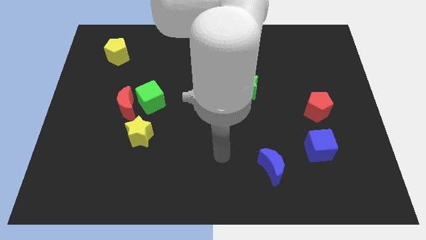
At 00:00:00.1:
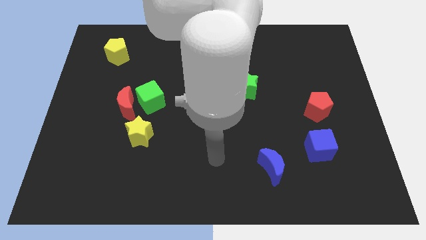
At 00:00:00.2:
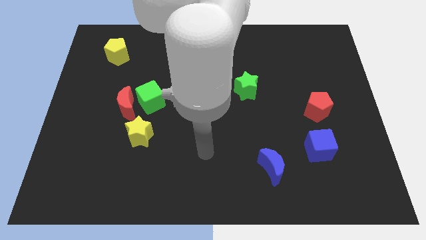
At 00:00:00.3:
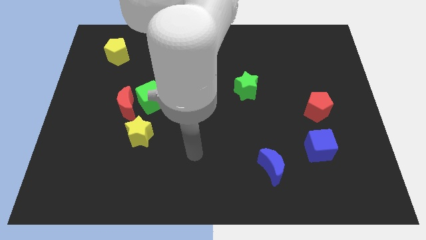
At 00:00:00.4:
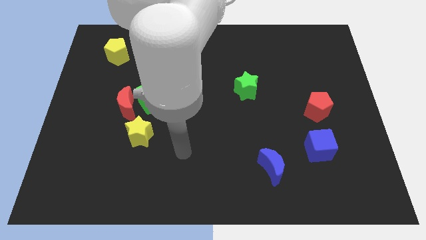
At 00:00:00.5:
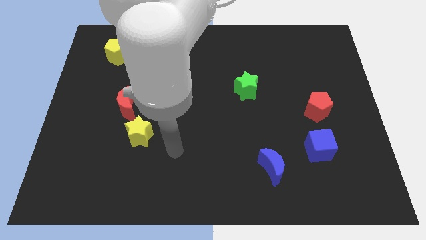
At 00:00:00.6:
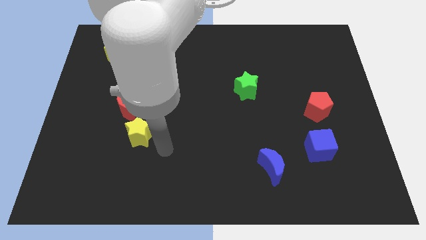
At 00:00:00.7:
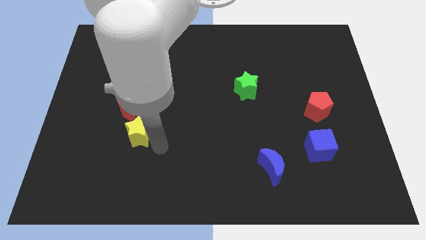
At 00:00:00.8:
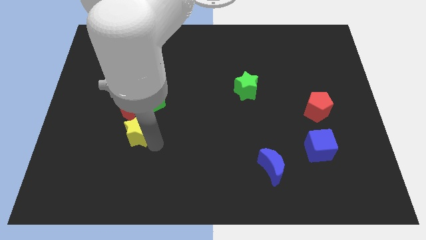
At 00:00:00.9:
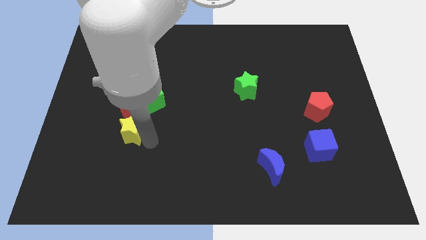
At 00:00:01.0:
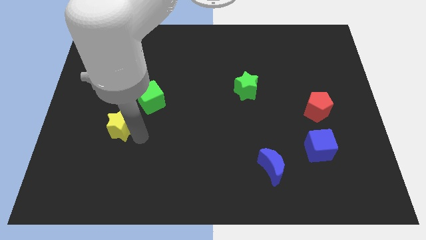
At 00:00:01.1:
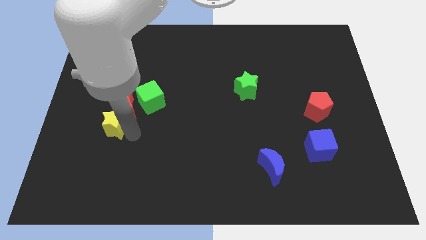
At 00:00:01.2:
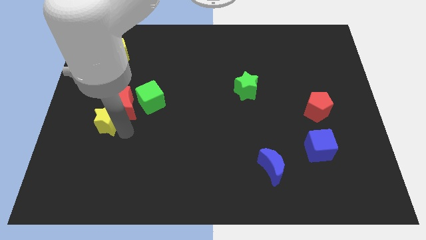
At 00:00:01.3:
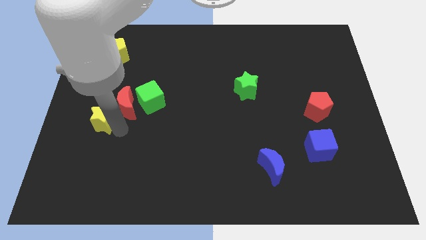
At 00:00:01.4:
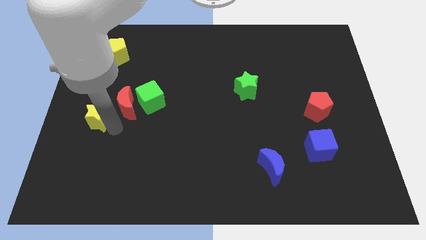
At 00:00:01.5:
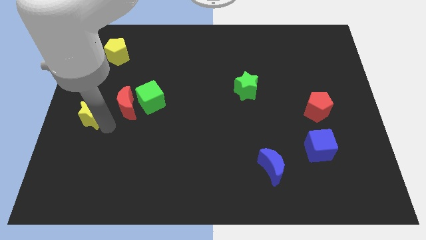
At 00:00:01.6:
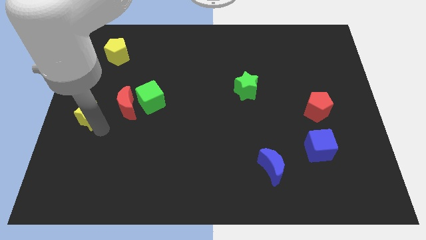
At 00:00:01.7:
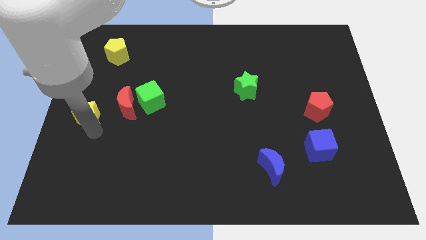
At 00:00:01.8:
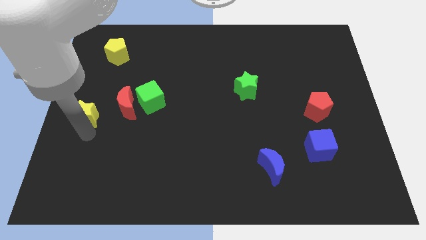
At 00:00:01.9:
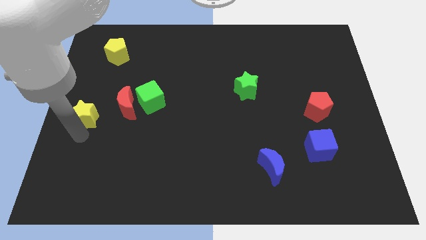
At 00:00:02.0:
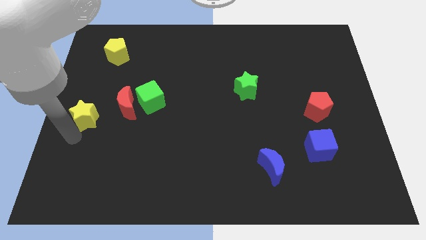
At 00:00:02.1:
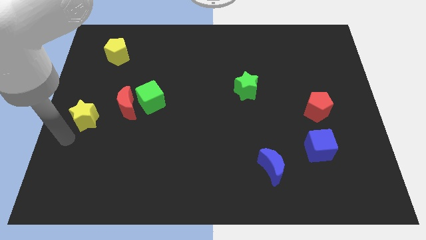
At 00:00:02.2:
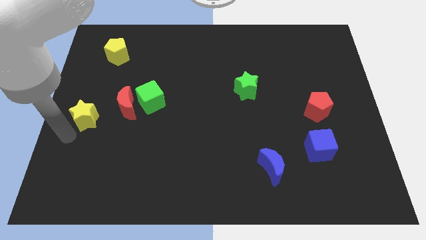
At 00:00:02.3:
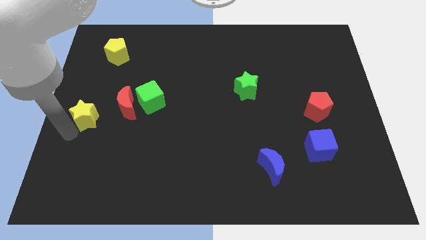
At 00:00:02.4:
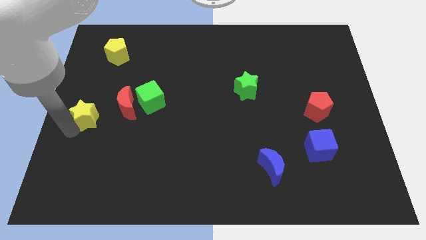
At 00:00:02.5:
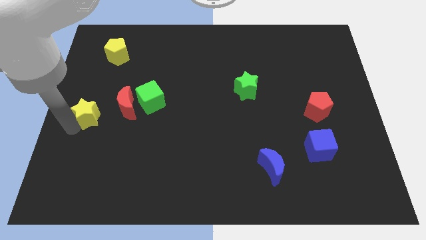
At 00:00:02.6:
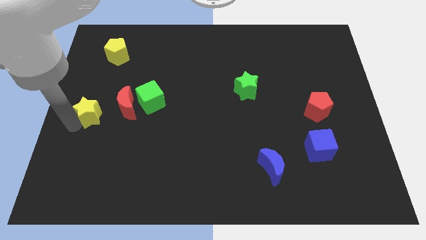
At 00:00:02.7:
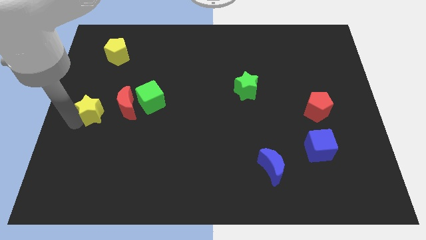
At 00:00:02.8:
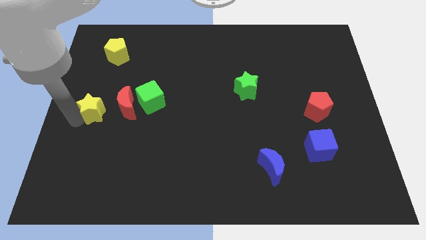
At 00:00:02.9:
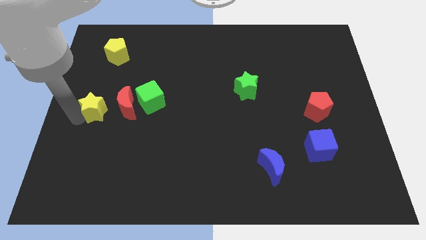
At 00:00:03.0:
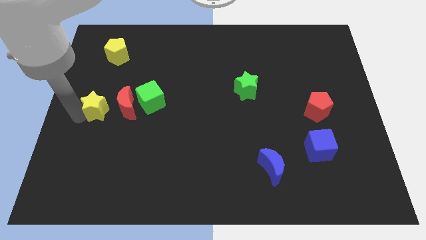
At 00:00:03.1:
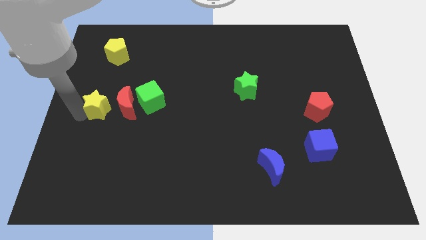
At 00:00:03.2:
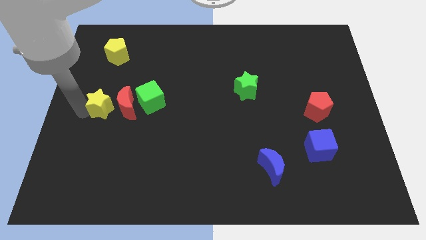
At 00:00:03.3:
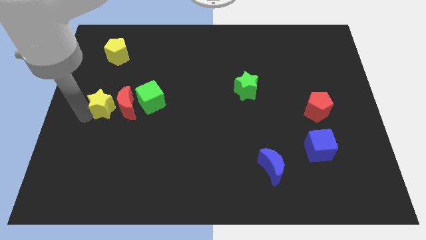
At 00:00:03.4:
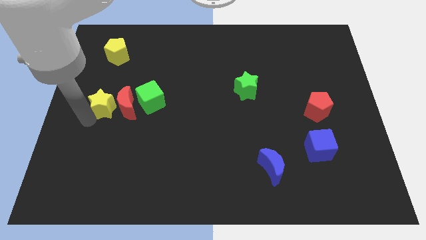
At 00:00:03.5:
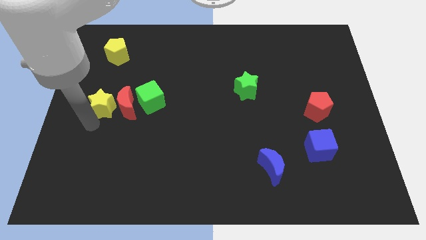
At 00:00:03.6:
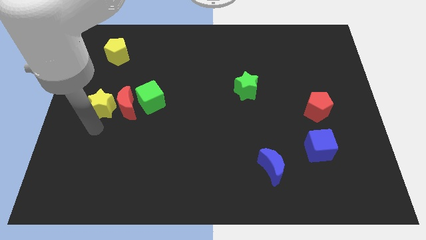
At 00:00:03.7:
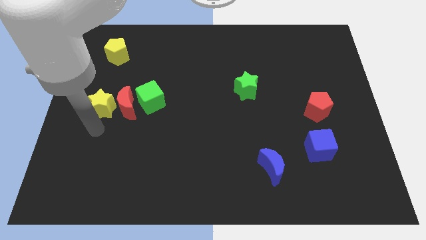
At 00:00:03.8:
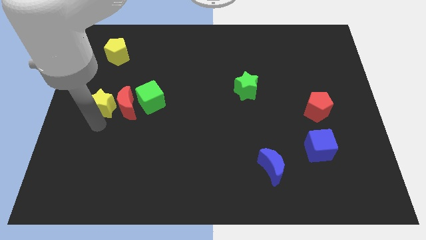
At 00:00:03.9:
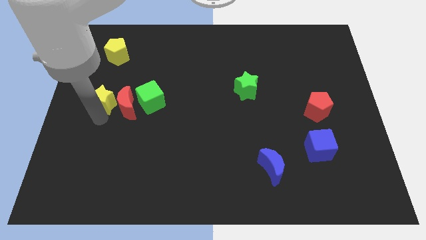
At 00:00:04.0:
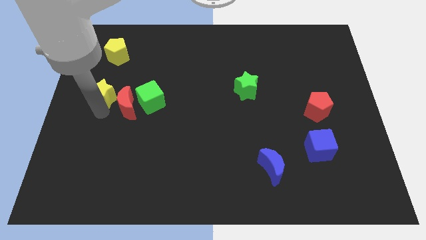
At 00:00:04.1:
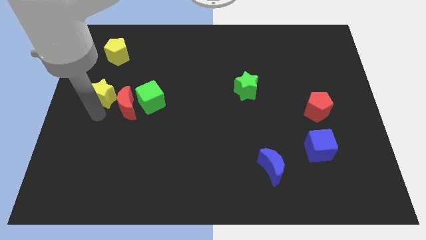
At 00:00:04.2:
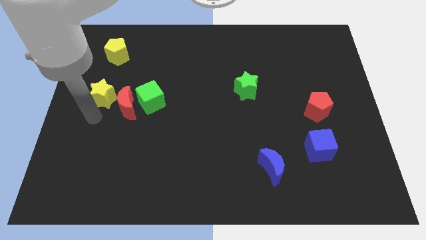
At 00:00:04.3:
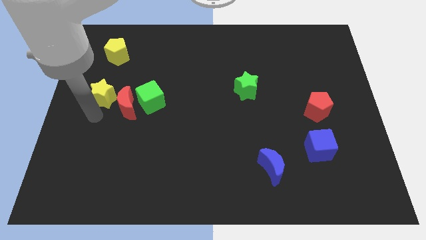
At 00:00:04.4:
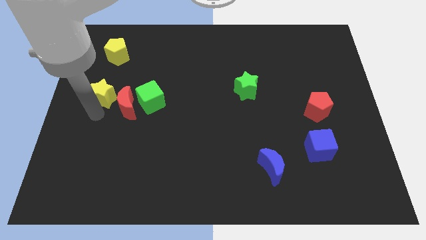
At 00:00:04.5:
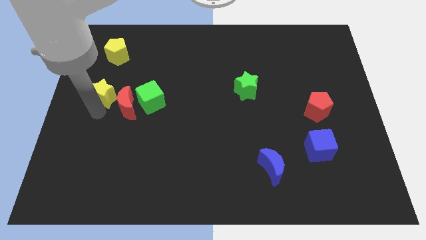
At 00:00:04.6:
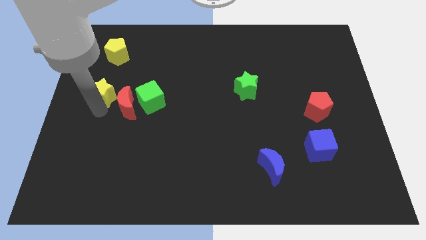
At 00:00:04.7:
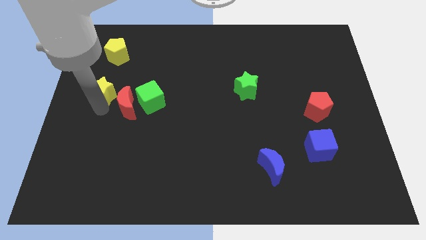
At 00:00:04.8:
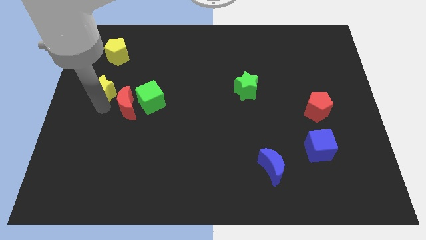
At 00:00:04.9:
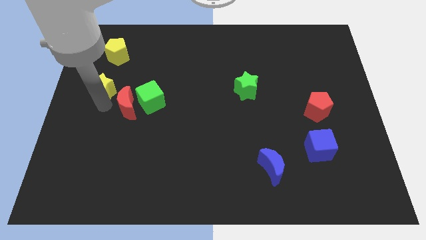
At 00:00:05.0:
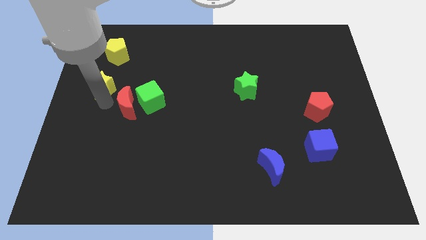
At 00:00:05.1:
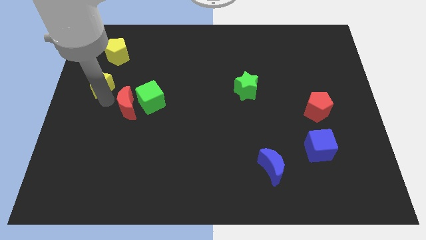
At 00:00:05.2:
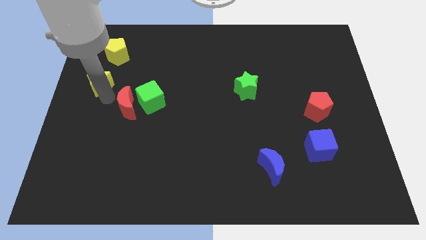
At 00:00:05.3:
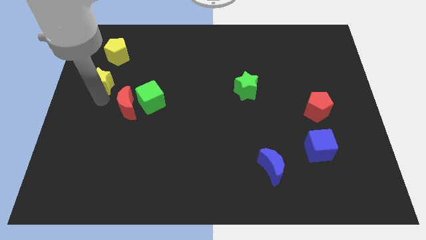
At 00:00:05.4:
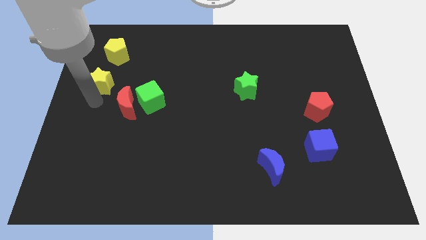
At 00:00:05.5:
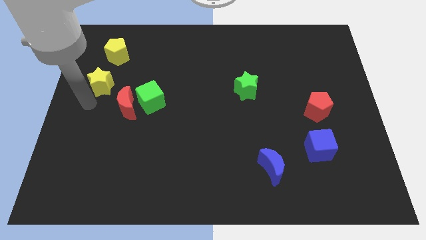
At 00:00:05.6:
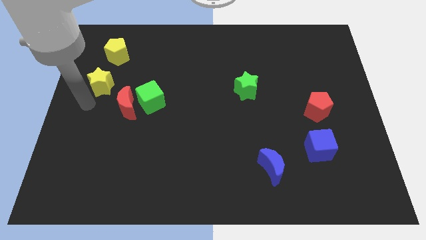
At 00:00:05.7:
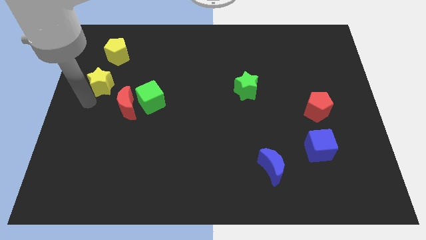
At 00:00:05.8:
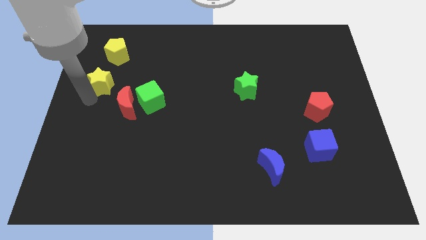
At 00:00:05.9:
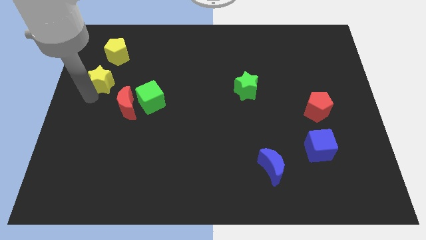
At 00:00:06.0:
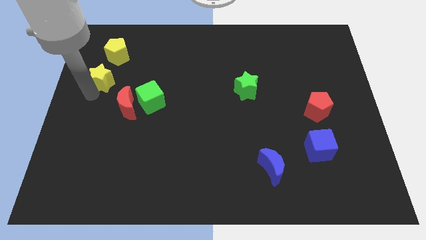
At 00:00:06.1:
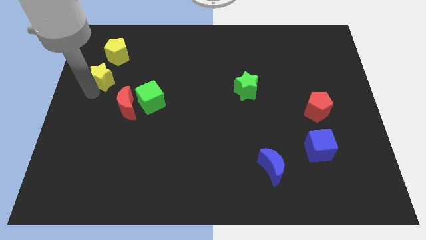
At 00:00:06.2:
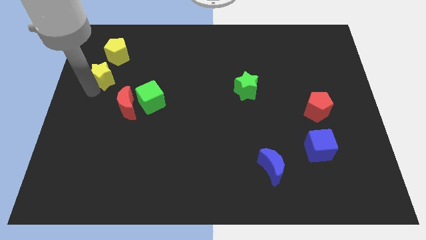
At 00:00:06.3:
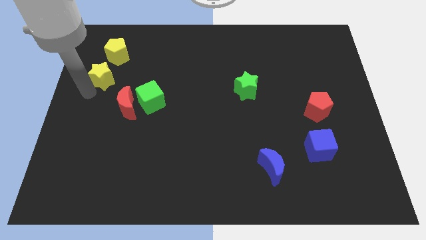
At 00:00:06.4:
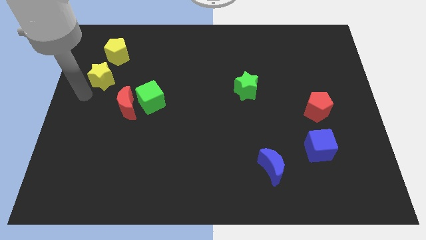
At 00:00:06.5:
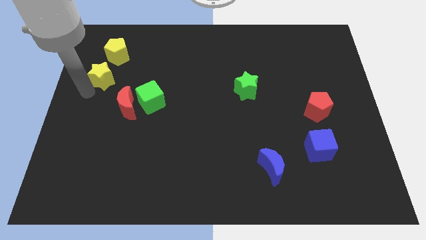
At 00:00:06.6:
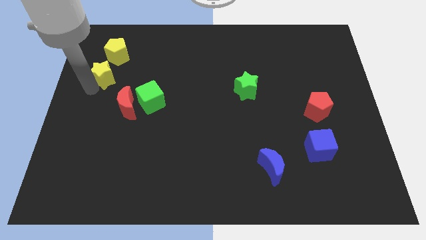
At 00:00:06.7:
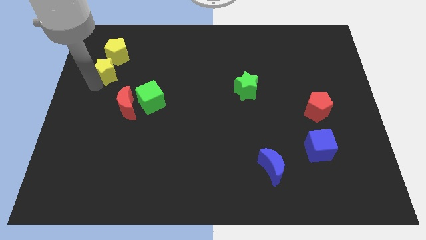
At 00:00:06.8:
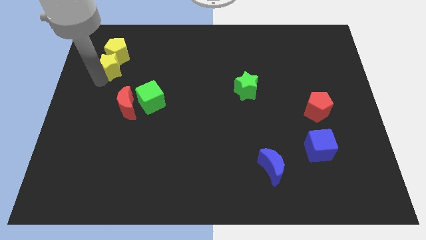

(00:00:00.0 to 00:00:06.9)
slide the yellow star close to the yellow pentagon
